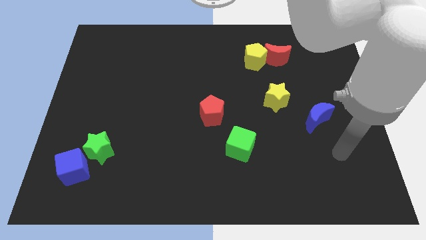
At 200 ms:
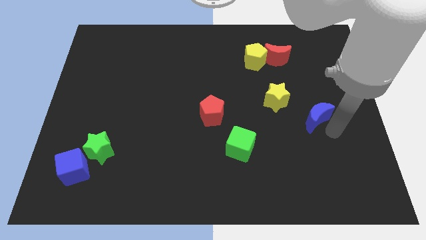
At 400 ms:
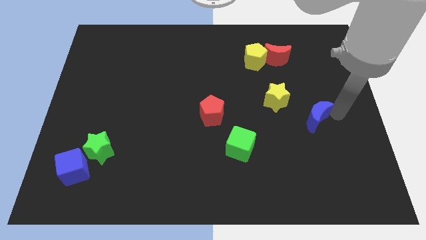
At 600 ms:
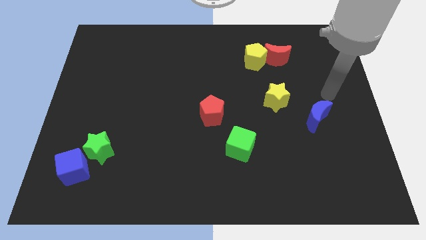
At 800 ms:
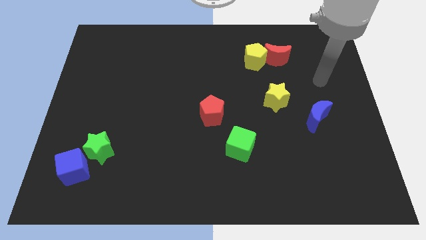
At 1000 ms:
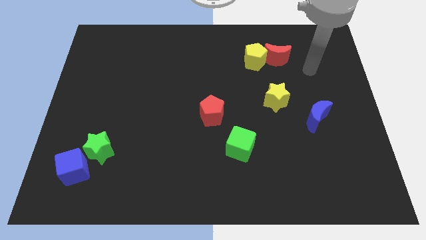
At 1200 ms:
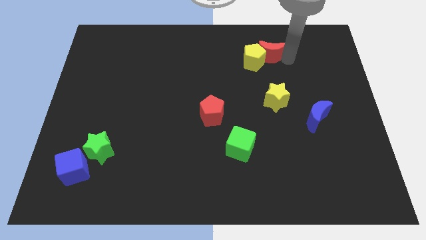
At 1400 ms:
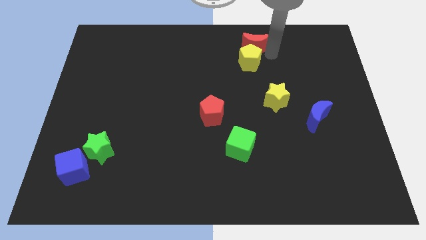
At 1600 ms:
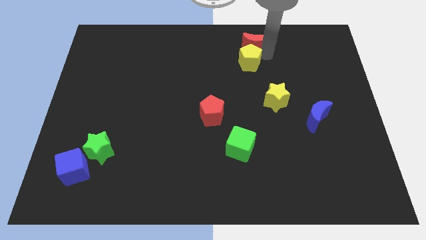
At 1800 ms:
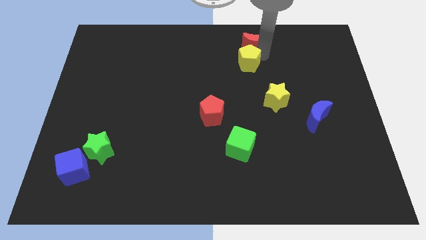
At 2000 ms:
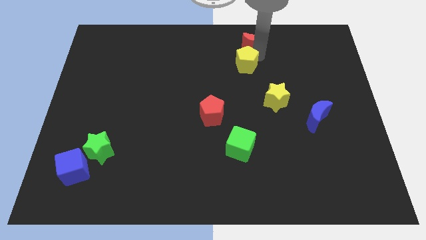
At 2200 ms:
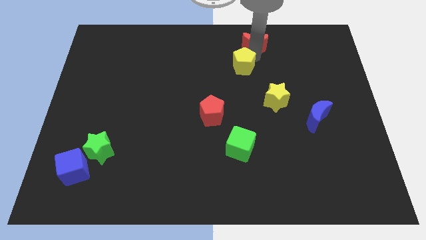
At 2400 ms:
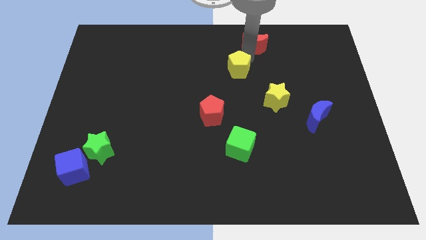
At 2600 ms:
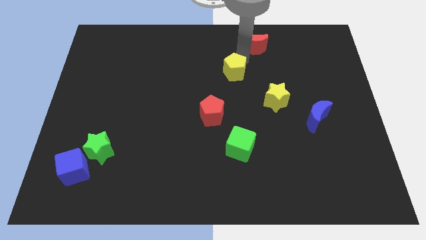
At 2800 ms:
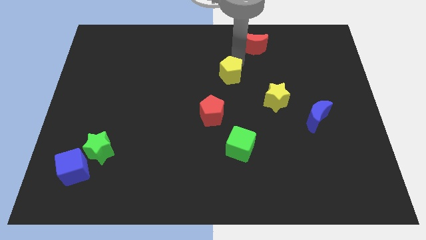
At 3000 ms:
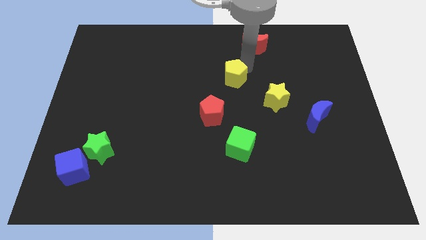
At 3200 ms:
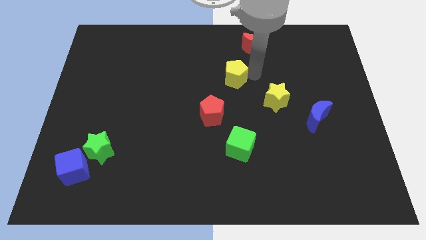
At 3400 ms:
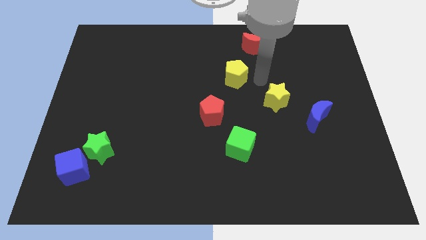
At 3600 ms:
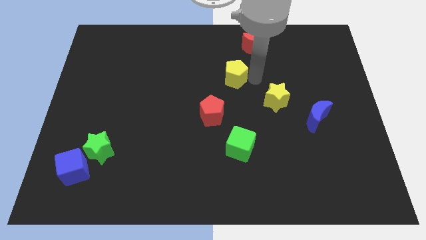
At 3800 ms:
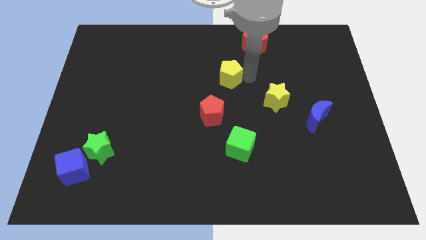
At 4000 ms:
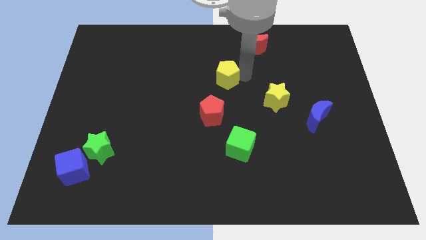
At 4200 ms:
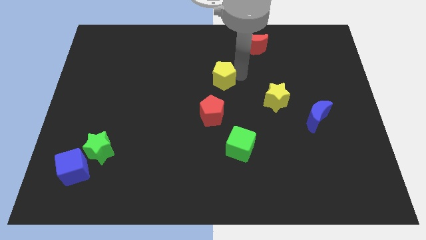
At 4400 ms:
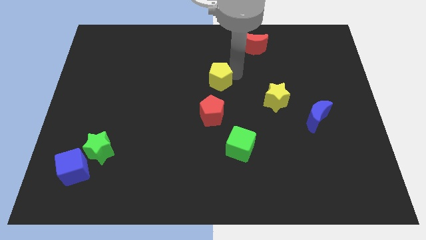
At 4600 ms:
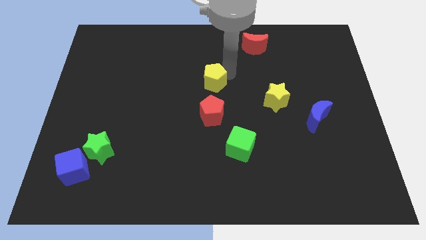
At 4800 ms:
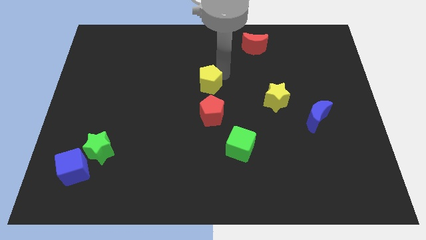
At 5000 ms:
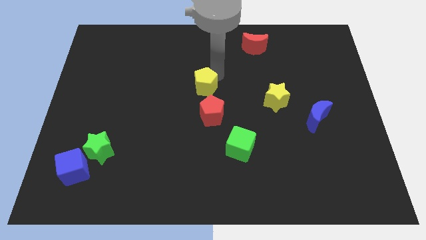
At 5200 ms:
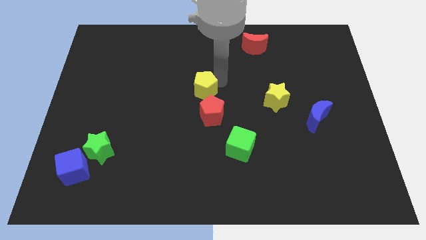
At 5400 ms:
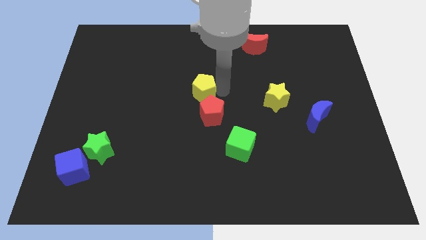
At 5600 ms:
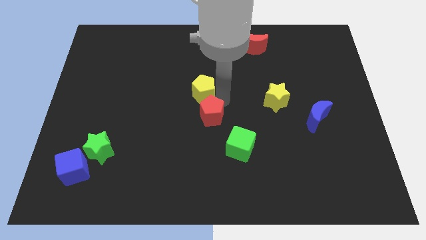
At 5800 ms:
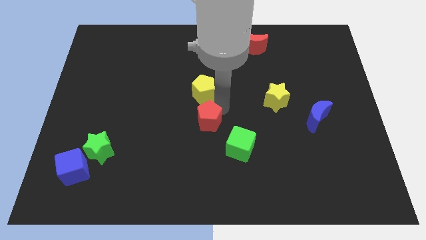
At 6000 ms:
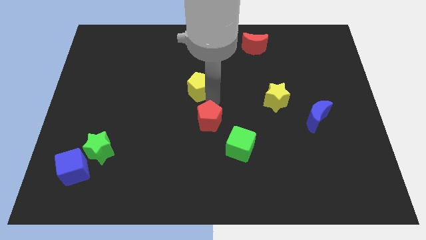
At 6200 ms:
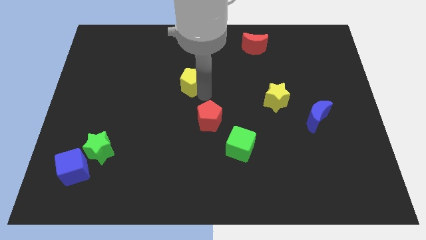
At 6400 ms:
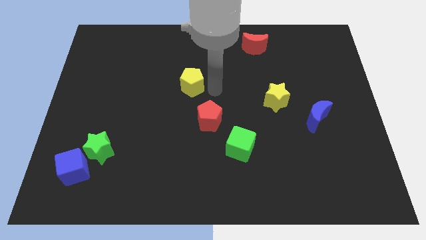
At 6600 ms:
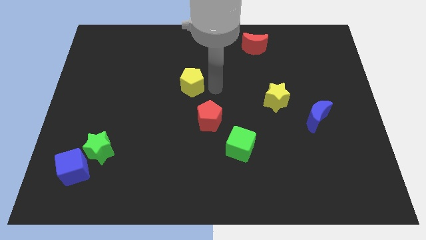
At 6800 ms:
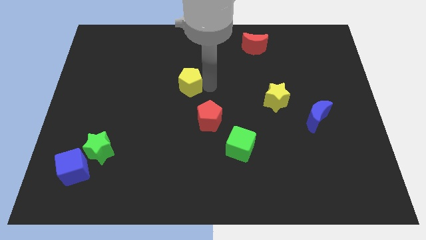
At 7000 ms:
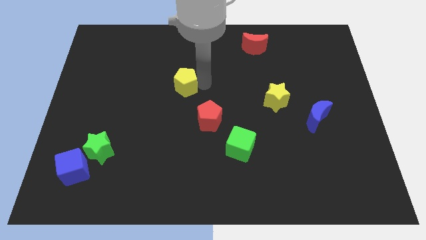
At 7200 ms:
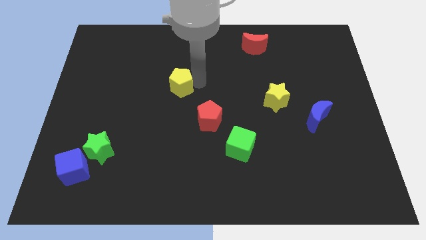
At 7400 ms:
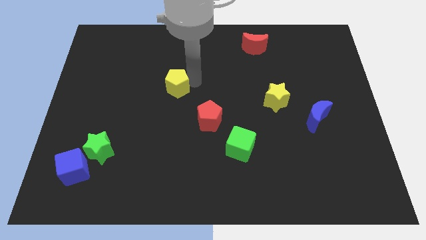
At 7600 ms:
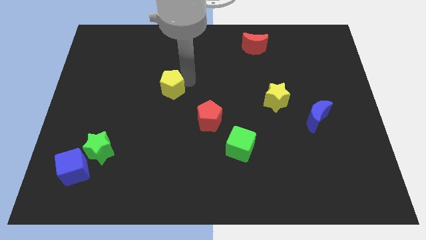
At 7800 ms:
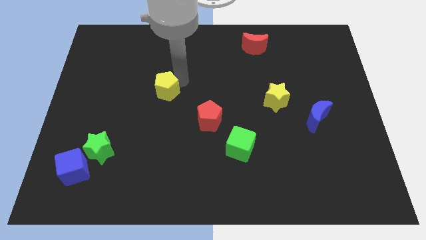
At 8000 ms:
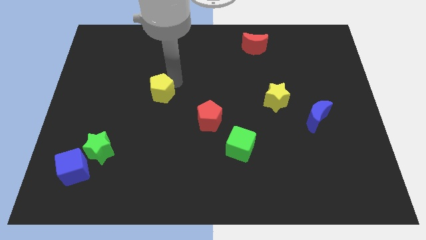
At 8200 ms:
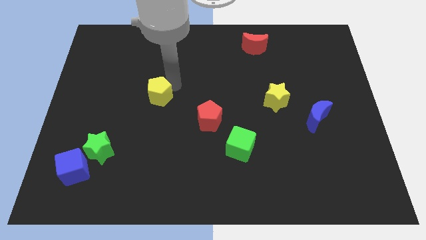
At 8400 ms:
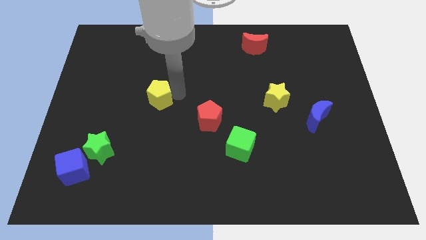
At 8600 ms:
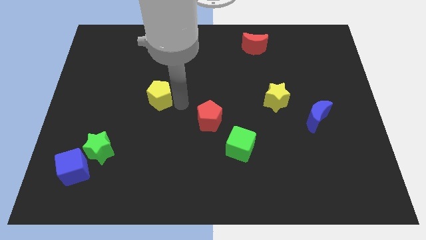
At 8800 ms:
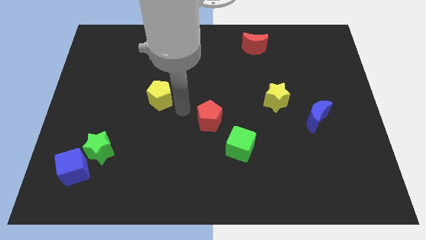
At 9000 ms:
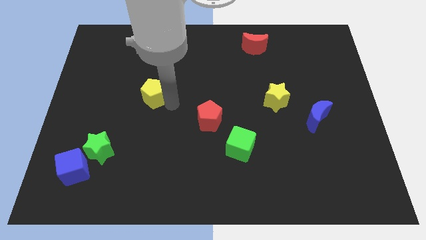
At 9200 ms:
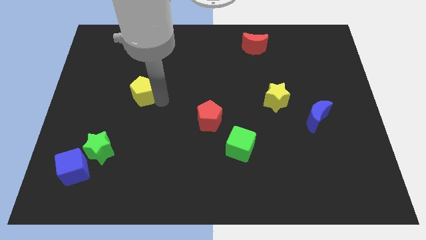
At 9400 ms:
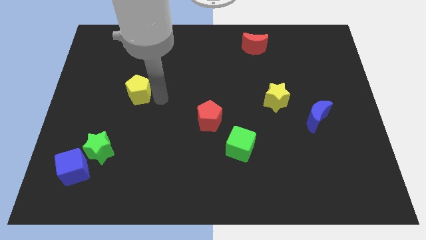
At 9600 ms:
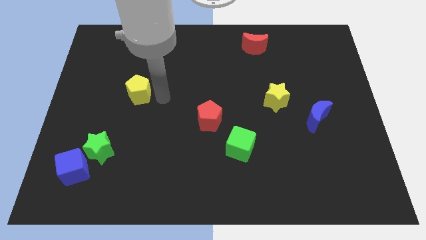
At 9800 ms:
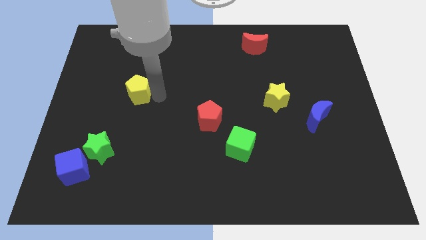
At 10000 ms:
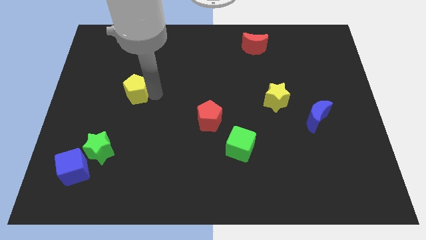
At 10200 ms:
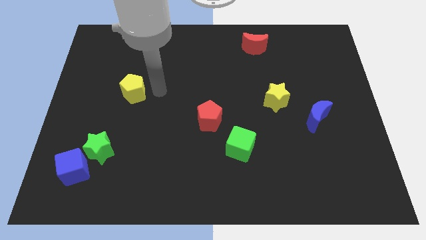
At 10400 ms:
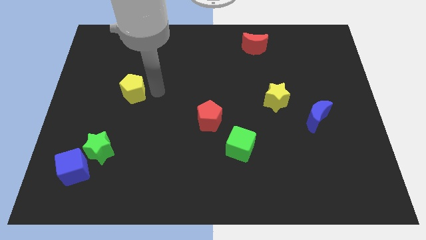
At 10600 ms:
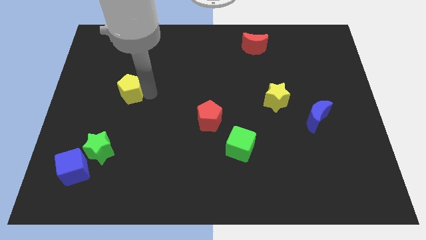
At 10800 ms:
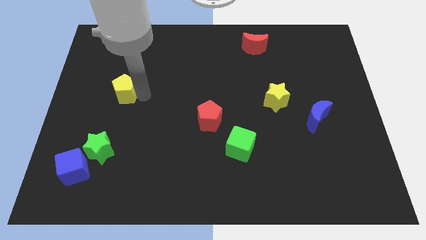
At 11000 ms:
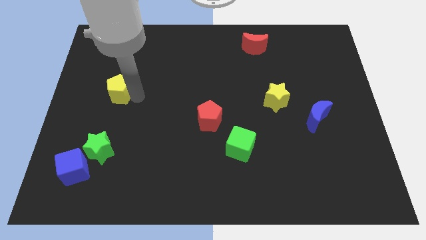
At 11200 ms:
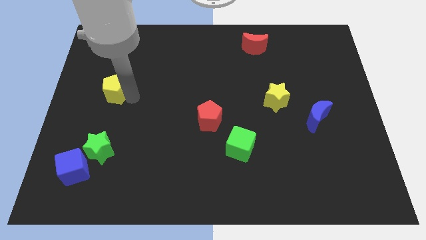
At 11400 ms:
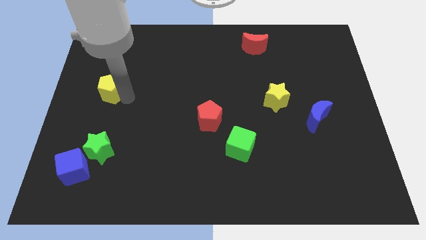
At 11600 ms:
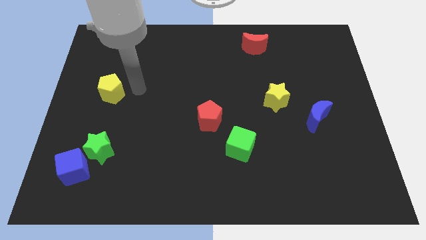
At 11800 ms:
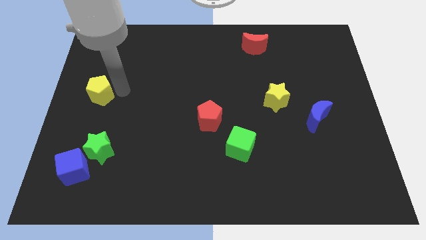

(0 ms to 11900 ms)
slide the yellow pentagon to the left side of the board

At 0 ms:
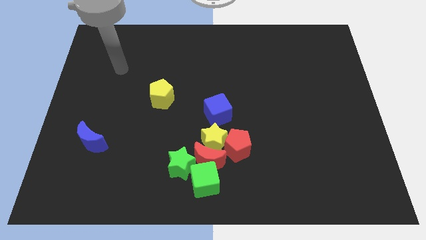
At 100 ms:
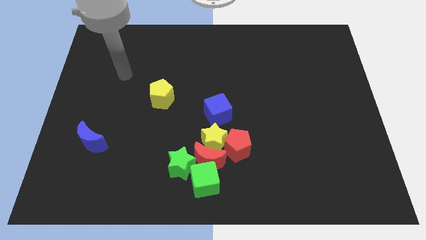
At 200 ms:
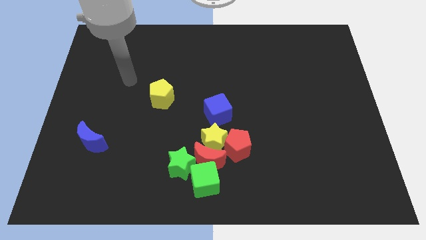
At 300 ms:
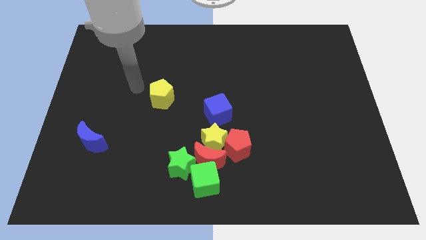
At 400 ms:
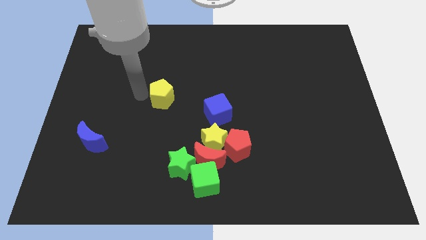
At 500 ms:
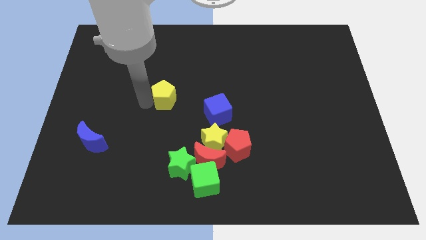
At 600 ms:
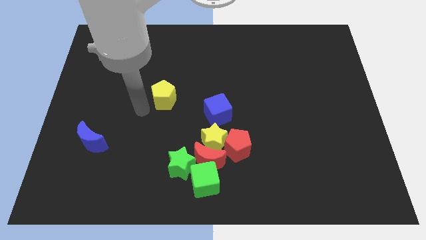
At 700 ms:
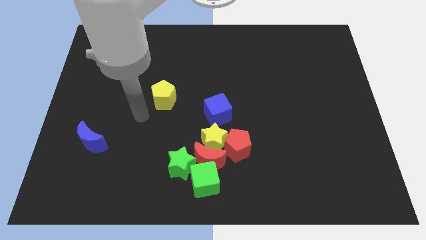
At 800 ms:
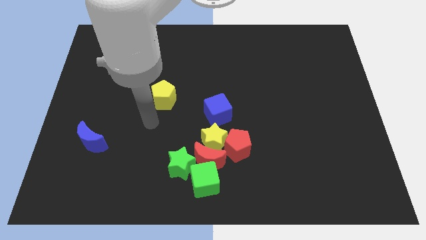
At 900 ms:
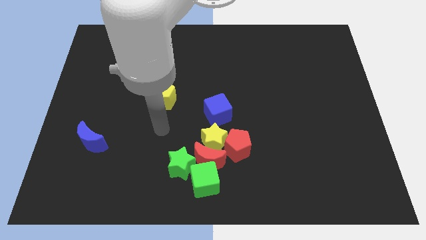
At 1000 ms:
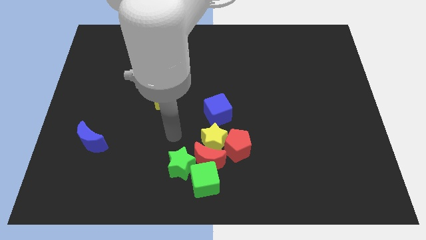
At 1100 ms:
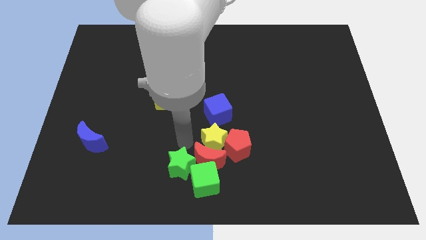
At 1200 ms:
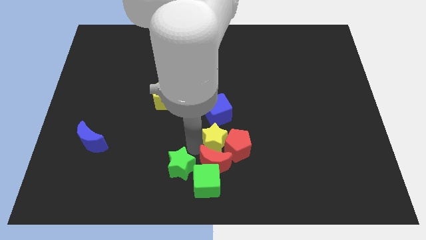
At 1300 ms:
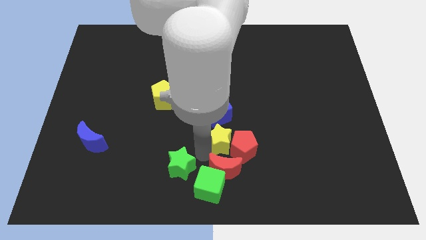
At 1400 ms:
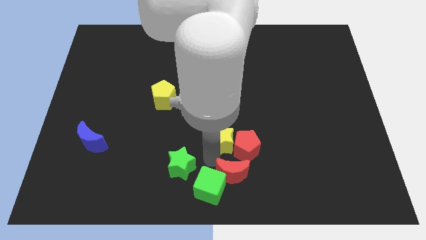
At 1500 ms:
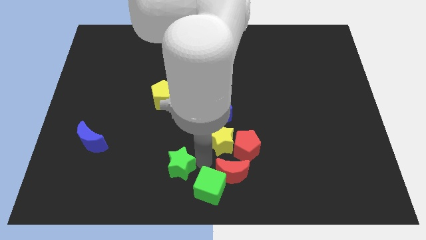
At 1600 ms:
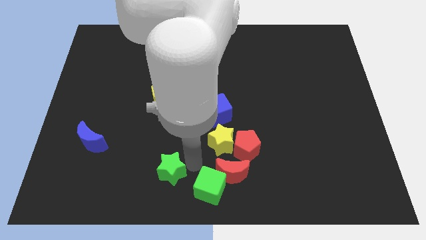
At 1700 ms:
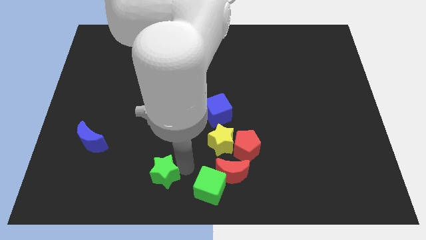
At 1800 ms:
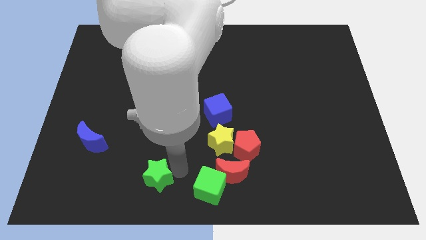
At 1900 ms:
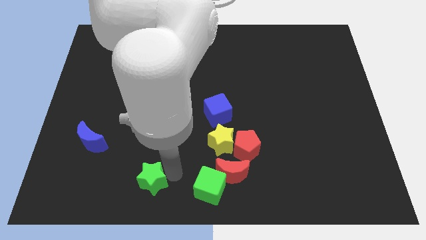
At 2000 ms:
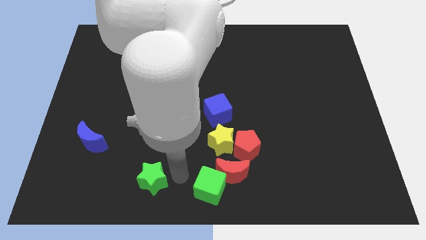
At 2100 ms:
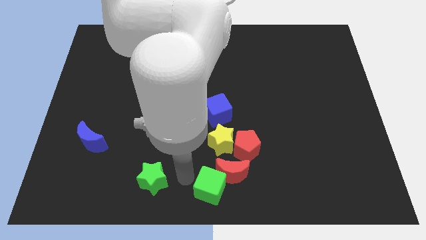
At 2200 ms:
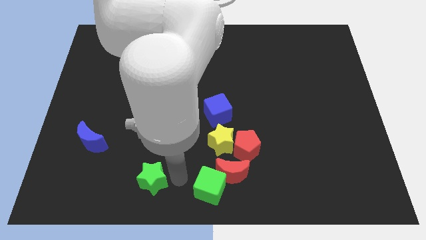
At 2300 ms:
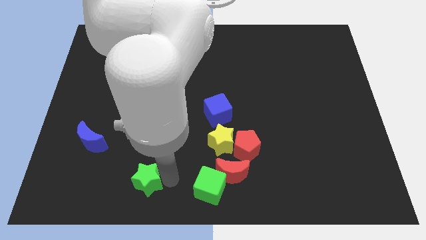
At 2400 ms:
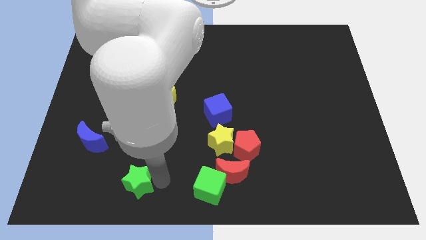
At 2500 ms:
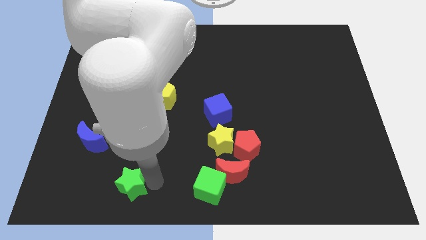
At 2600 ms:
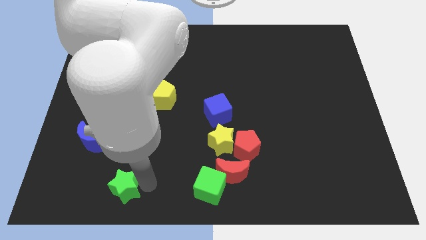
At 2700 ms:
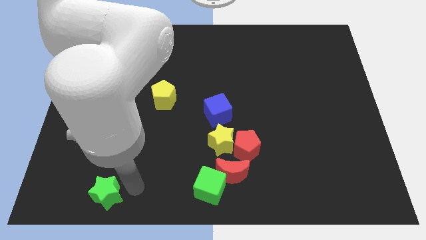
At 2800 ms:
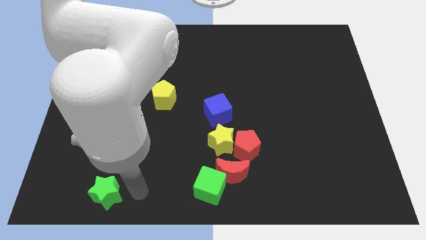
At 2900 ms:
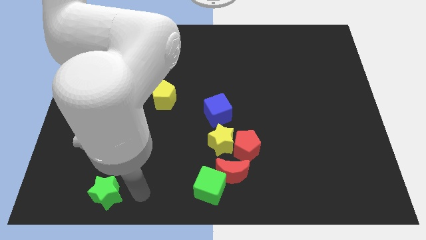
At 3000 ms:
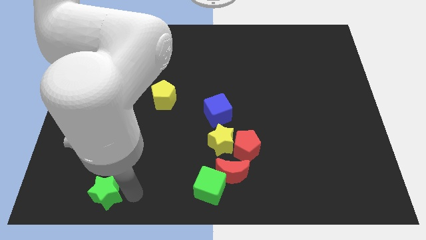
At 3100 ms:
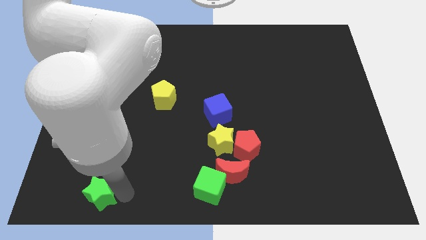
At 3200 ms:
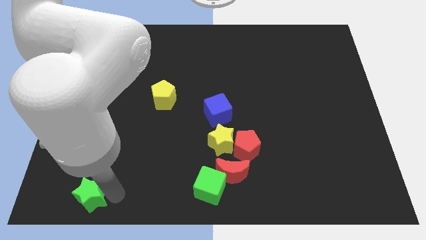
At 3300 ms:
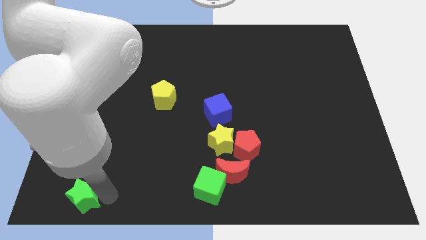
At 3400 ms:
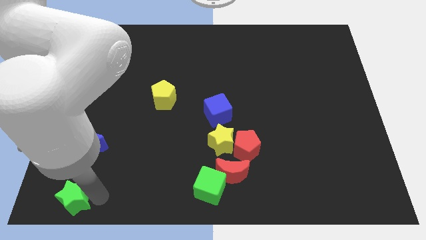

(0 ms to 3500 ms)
move the green star to the bottom left
